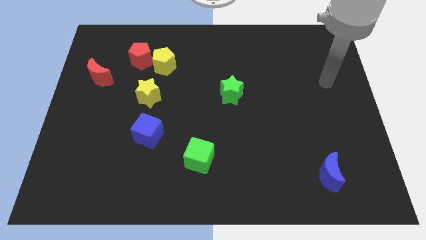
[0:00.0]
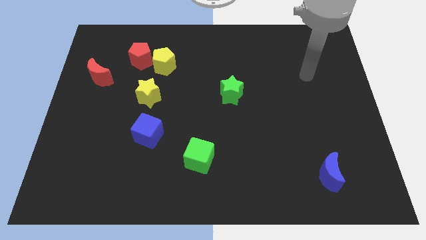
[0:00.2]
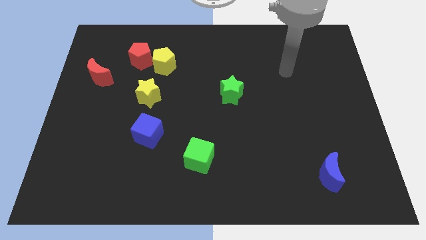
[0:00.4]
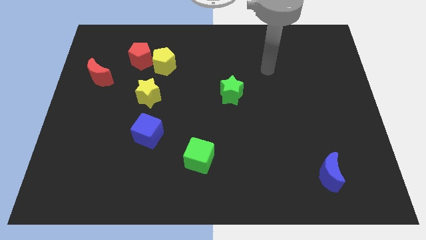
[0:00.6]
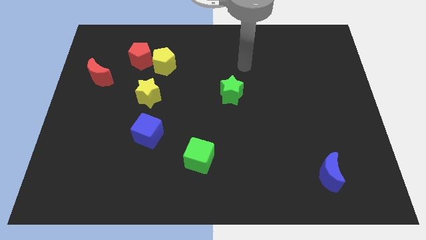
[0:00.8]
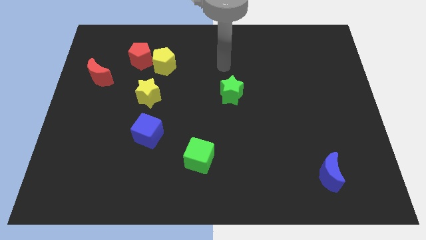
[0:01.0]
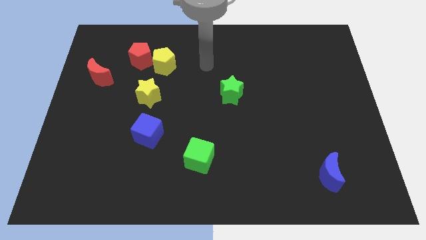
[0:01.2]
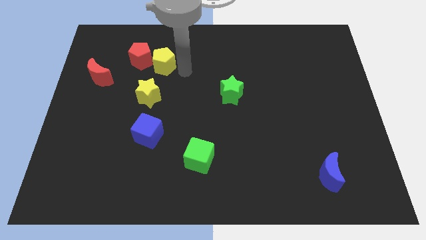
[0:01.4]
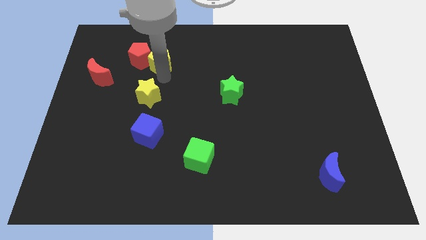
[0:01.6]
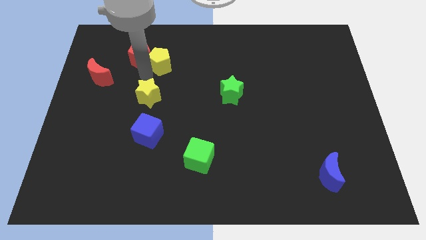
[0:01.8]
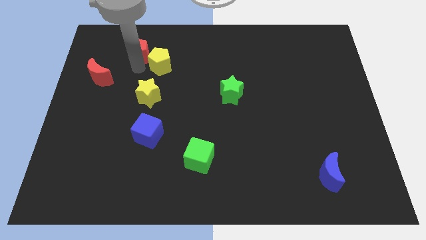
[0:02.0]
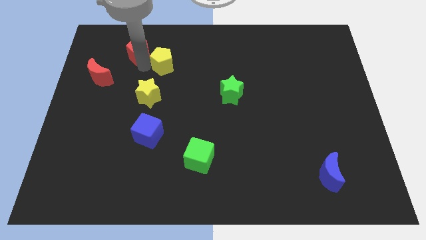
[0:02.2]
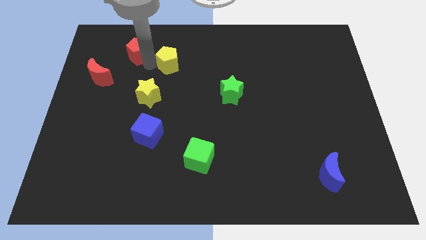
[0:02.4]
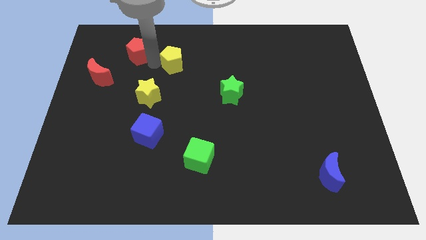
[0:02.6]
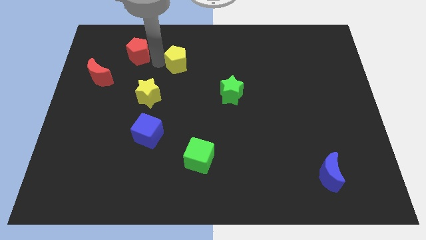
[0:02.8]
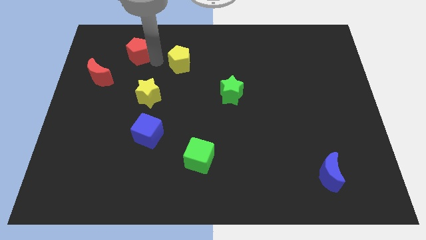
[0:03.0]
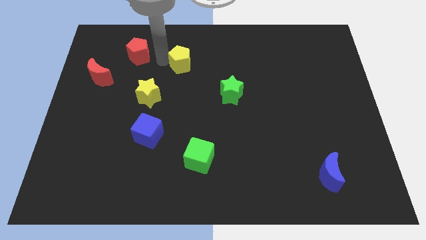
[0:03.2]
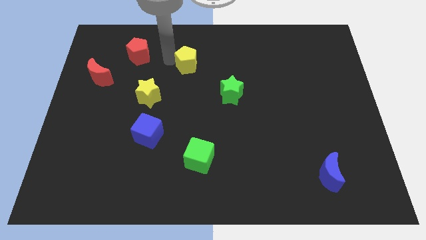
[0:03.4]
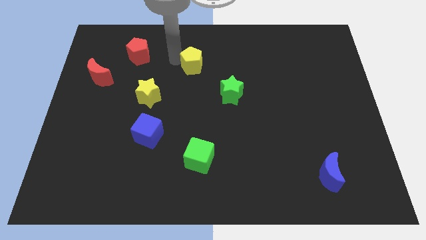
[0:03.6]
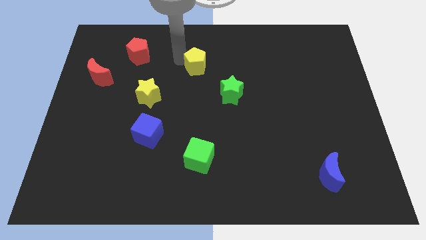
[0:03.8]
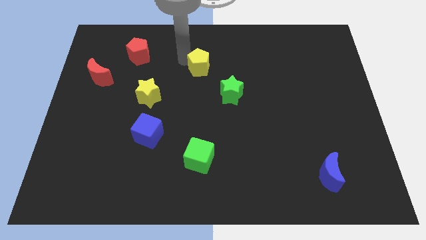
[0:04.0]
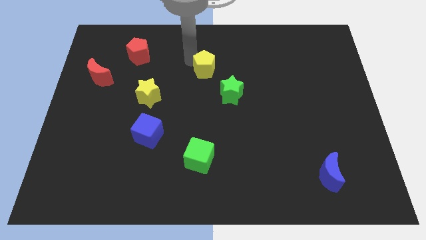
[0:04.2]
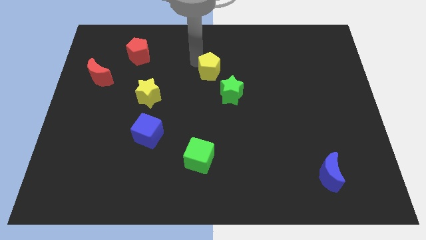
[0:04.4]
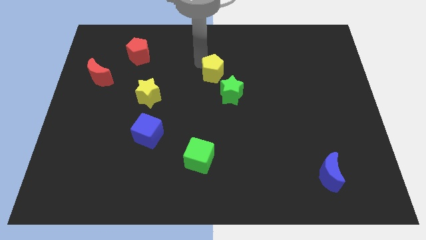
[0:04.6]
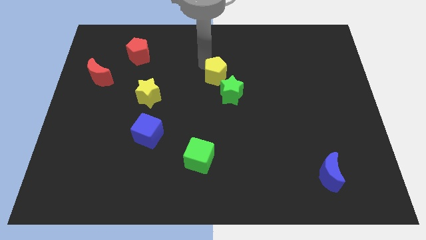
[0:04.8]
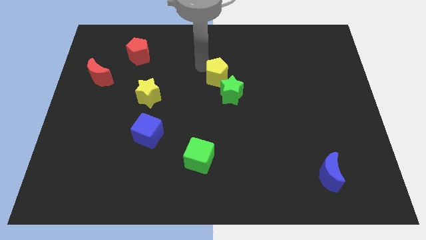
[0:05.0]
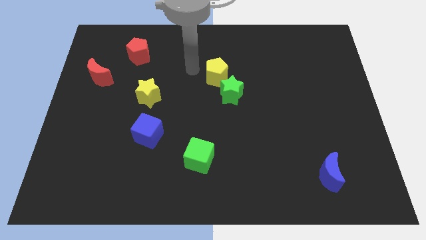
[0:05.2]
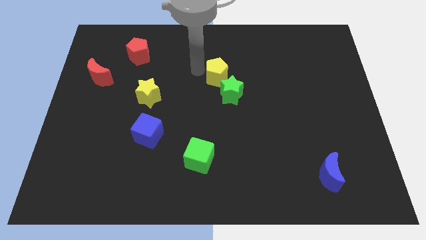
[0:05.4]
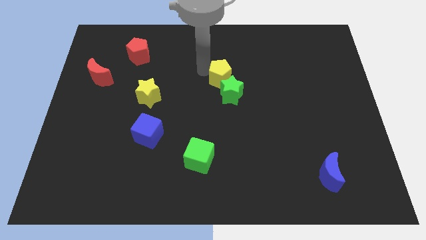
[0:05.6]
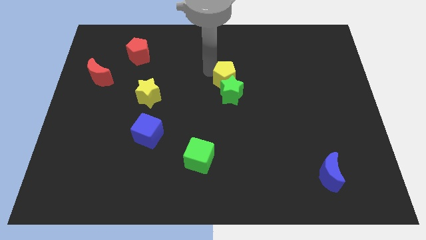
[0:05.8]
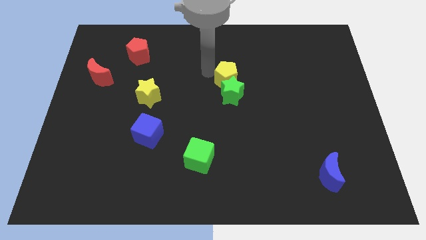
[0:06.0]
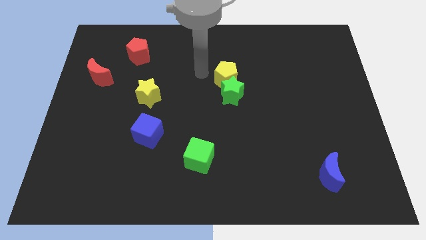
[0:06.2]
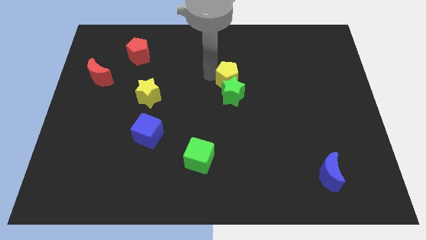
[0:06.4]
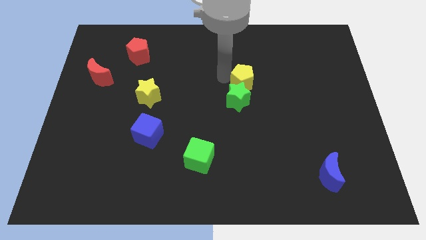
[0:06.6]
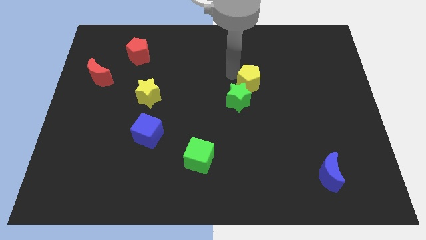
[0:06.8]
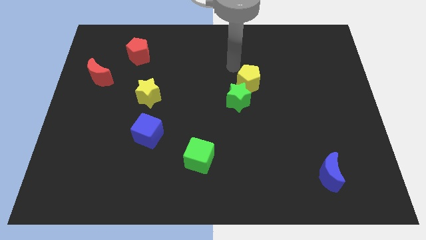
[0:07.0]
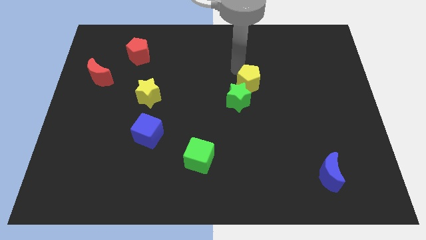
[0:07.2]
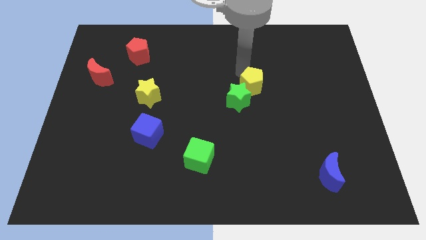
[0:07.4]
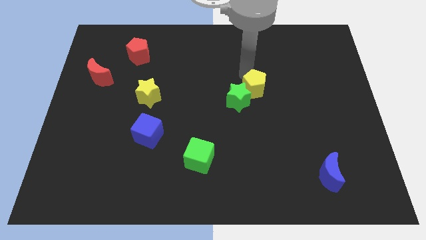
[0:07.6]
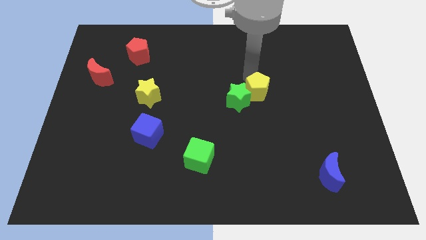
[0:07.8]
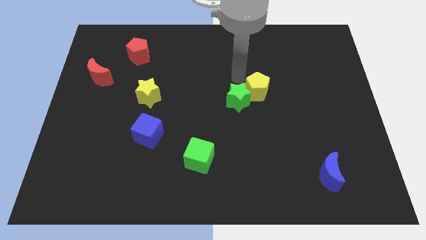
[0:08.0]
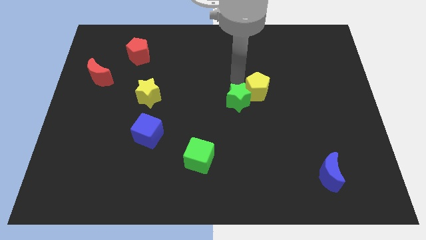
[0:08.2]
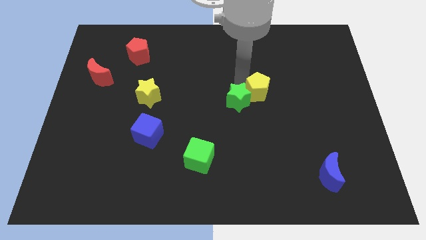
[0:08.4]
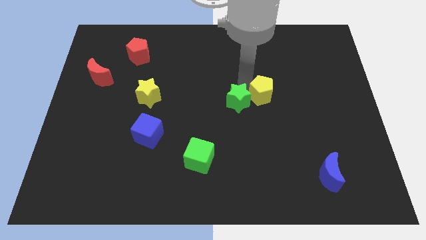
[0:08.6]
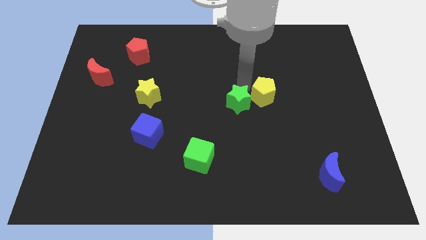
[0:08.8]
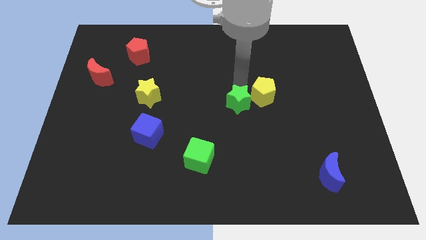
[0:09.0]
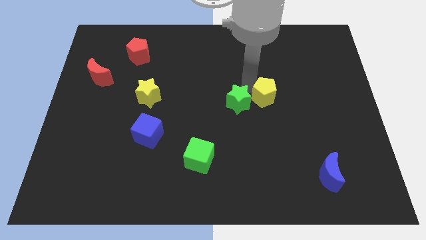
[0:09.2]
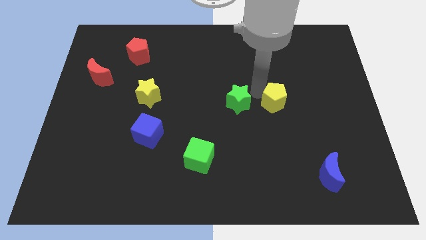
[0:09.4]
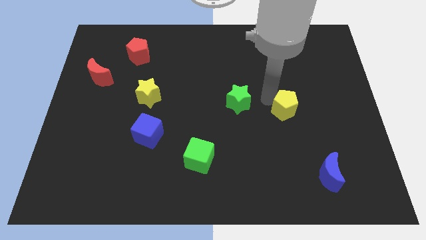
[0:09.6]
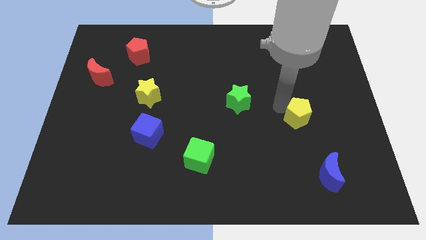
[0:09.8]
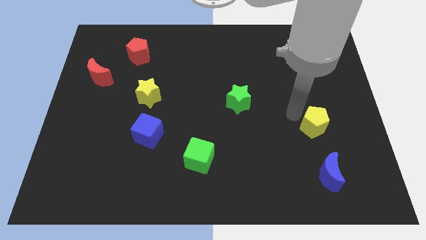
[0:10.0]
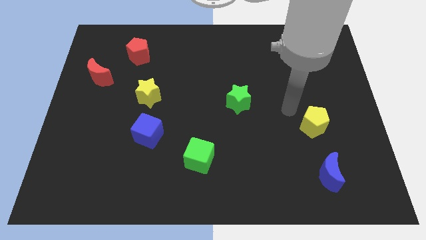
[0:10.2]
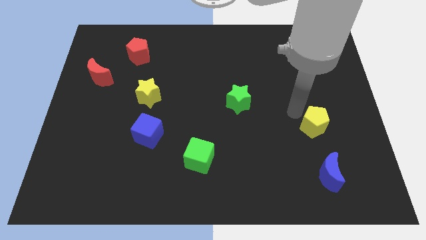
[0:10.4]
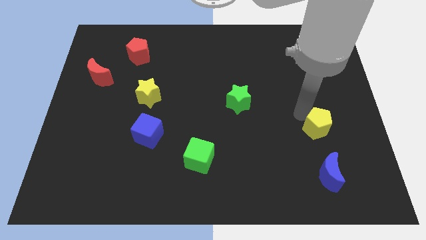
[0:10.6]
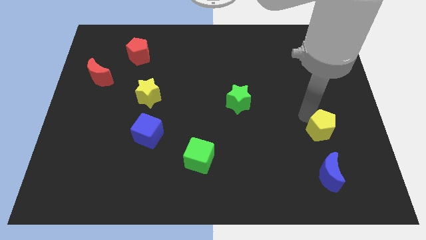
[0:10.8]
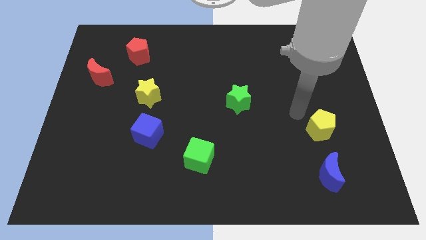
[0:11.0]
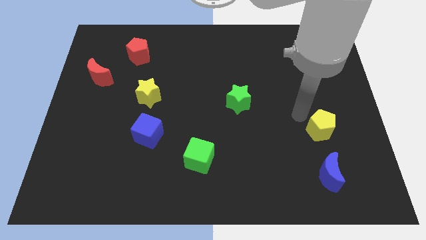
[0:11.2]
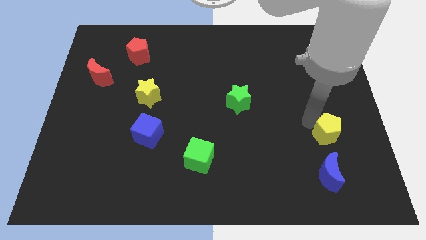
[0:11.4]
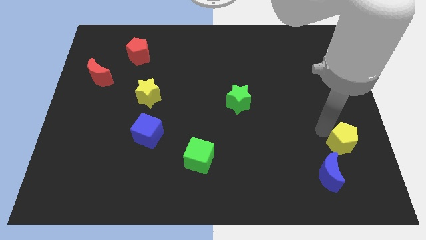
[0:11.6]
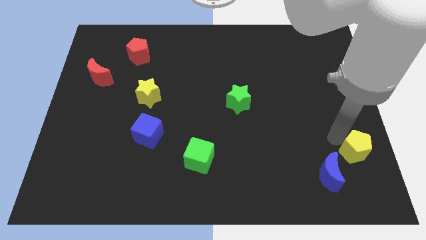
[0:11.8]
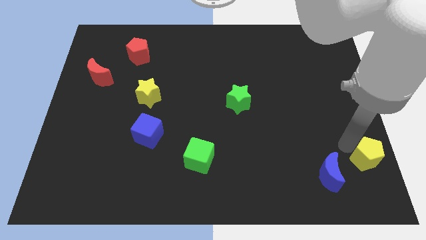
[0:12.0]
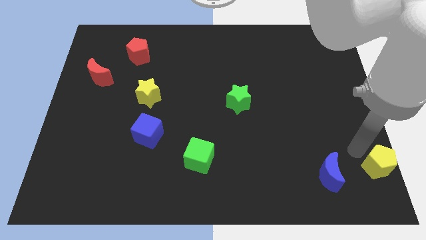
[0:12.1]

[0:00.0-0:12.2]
move the yellow pentagon to the bottom right of the board

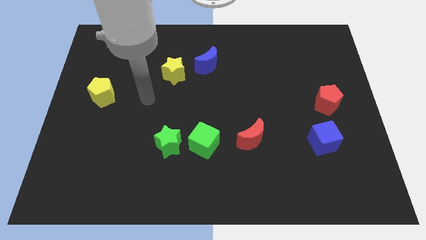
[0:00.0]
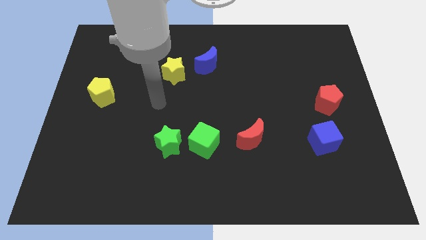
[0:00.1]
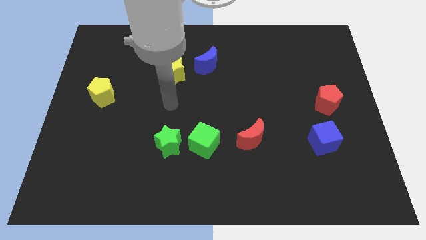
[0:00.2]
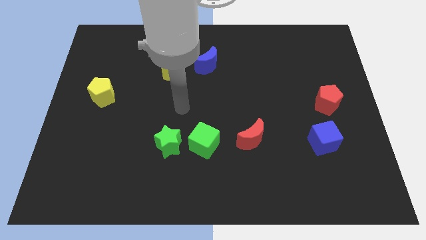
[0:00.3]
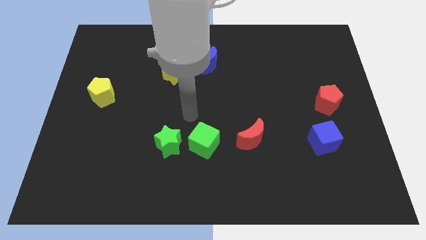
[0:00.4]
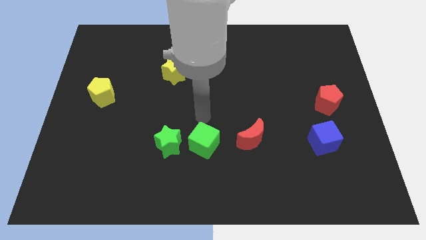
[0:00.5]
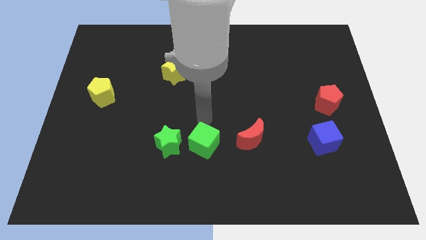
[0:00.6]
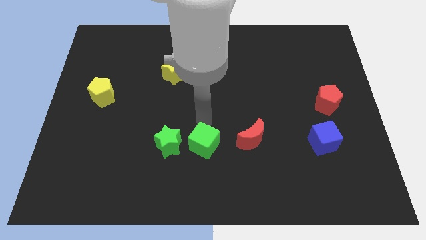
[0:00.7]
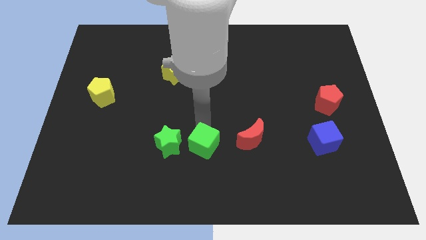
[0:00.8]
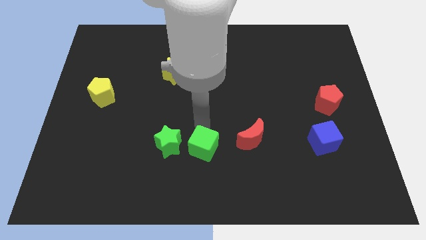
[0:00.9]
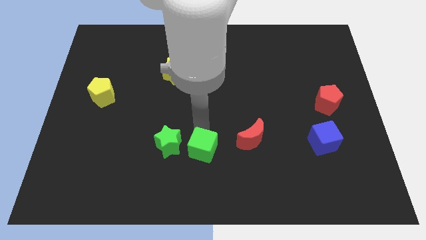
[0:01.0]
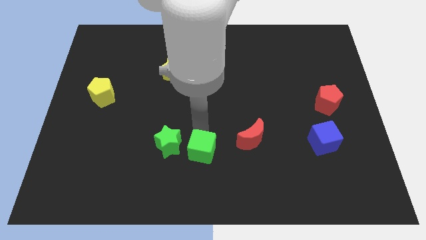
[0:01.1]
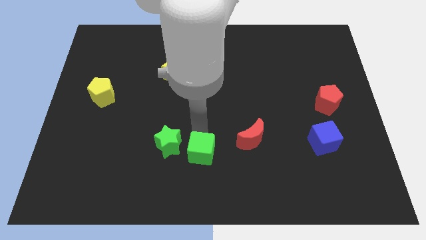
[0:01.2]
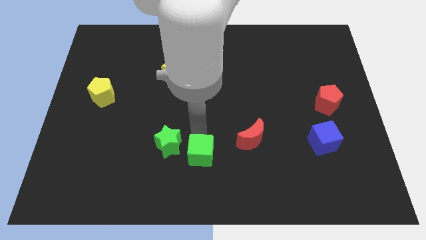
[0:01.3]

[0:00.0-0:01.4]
push the green cube to the bottom side
